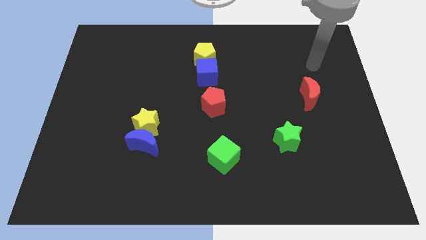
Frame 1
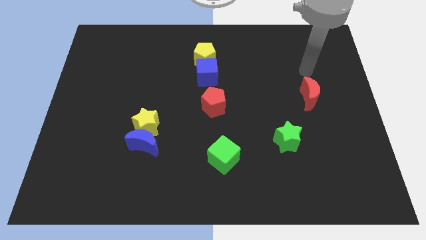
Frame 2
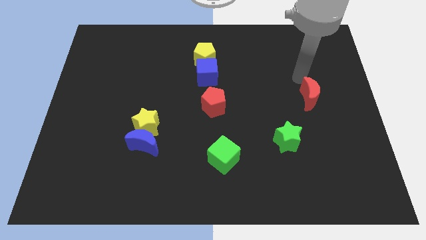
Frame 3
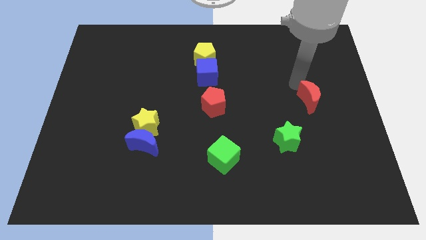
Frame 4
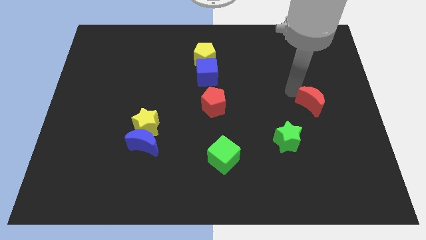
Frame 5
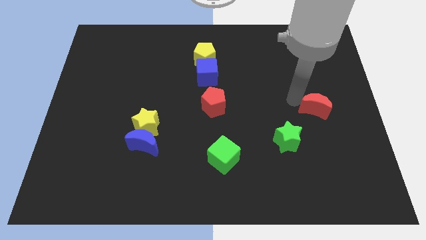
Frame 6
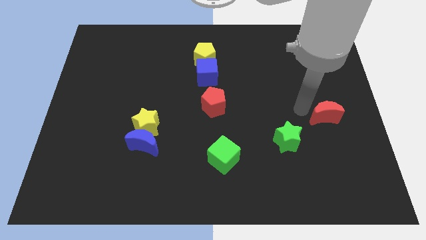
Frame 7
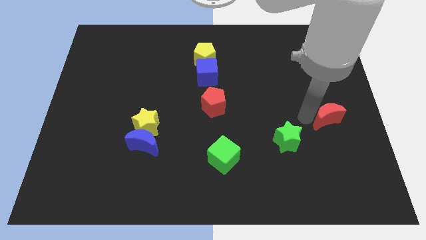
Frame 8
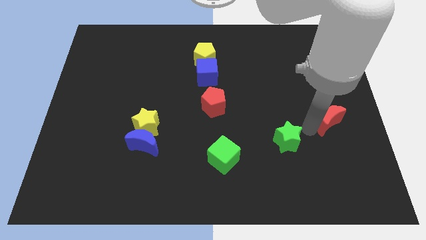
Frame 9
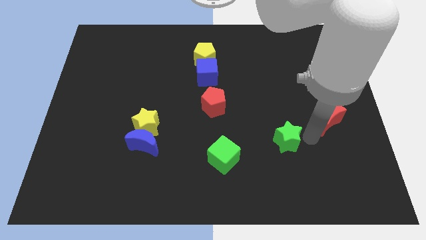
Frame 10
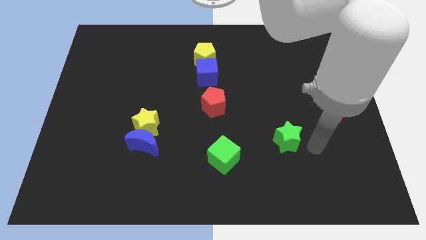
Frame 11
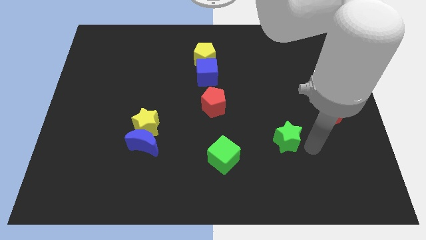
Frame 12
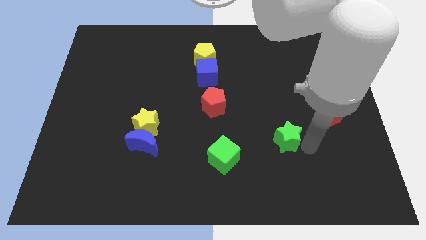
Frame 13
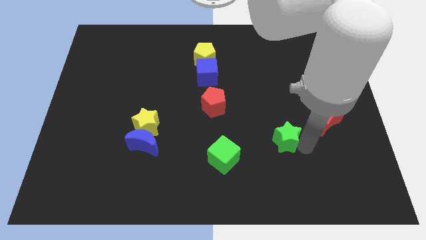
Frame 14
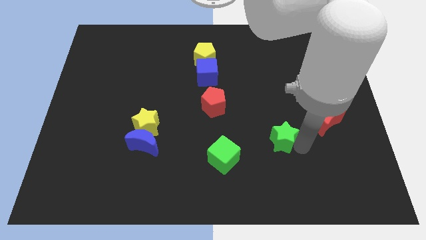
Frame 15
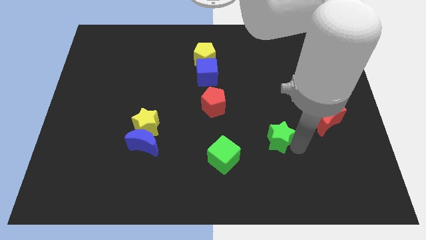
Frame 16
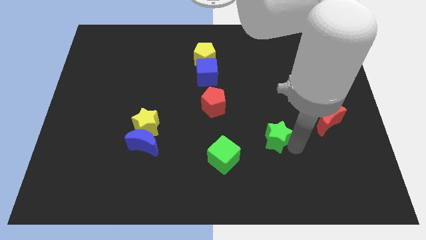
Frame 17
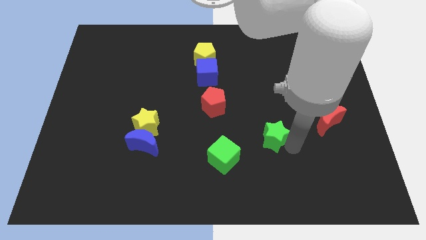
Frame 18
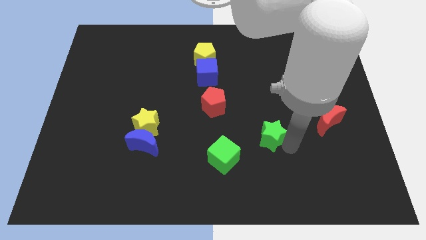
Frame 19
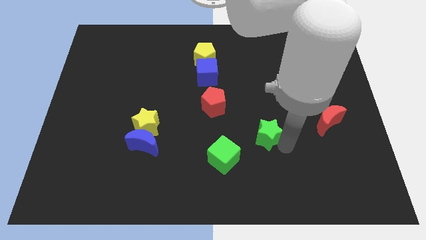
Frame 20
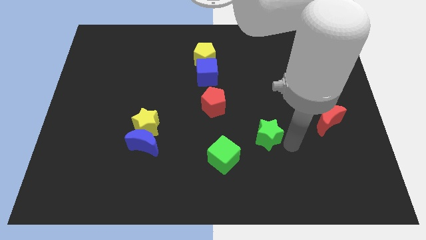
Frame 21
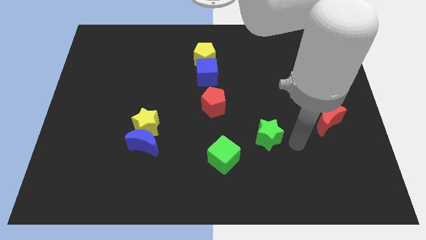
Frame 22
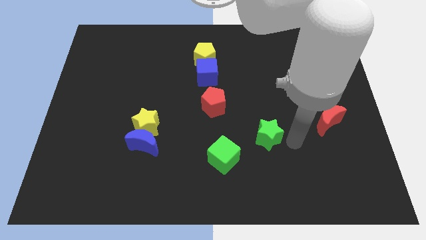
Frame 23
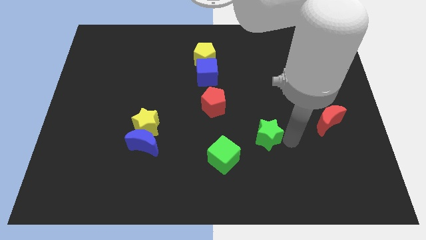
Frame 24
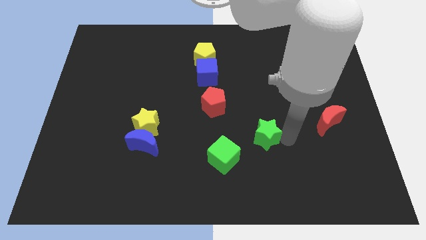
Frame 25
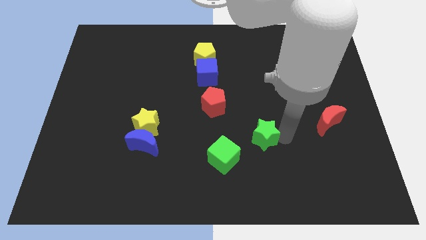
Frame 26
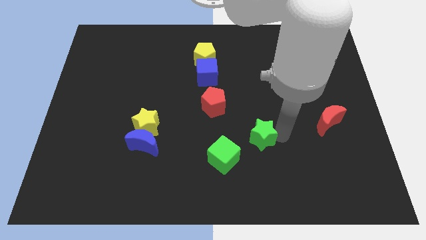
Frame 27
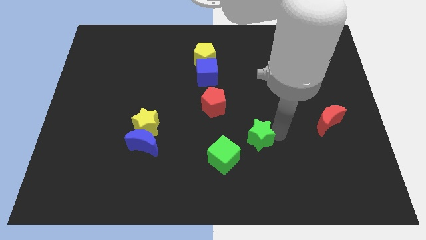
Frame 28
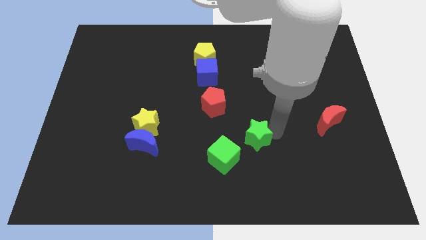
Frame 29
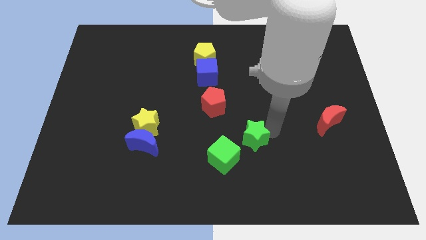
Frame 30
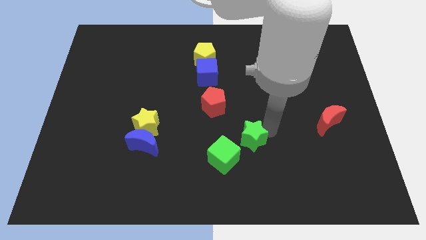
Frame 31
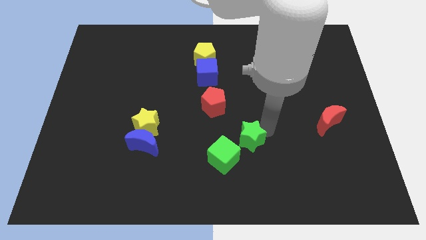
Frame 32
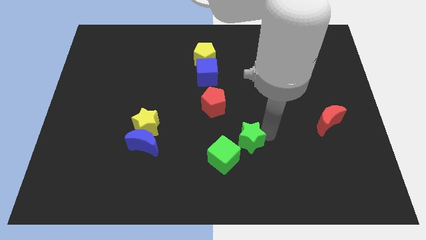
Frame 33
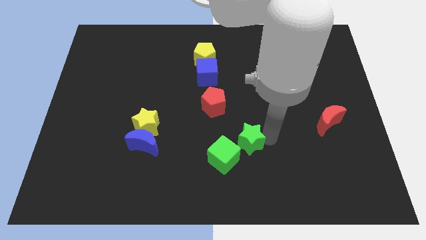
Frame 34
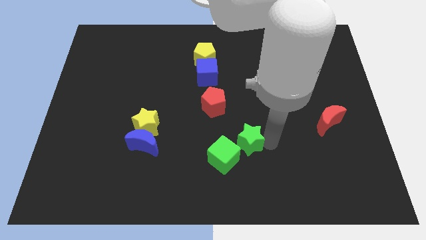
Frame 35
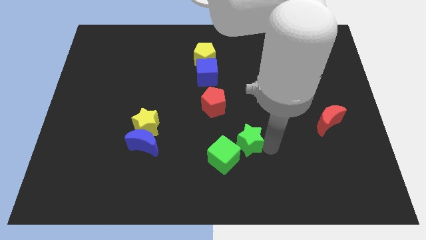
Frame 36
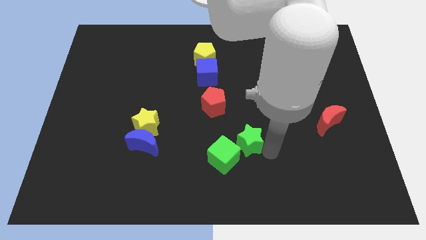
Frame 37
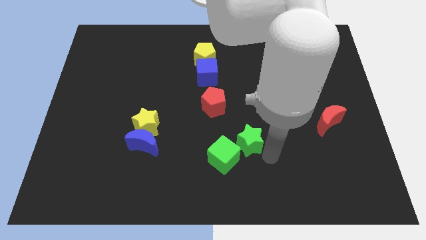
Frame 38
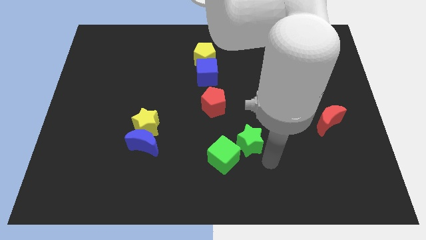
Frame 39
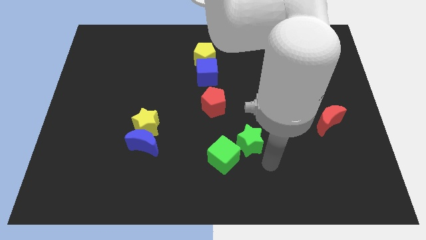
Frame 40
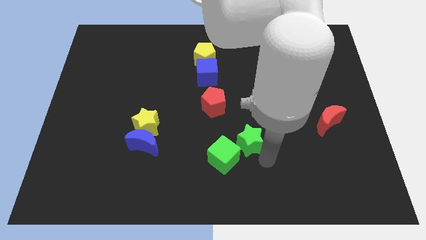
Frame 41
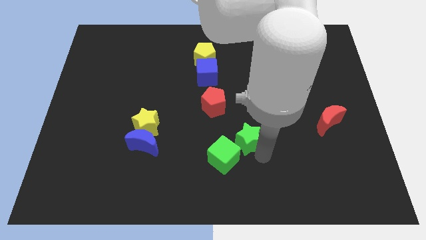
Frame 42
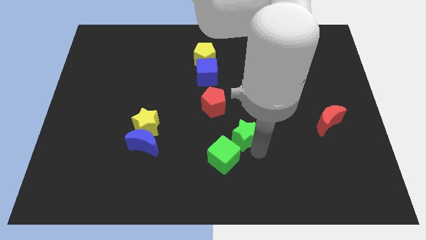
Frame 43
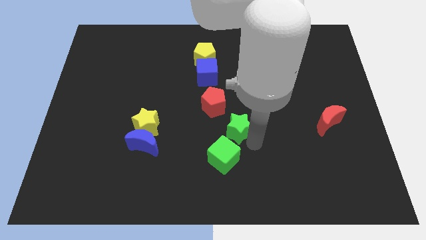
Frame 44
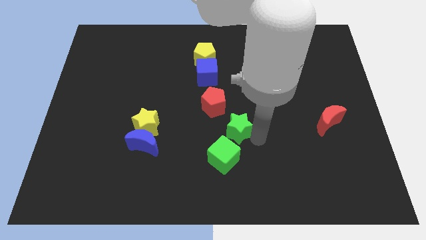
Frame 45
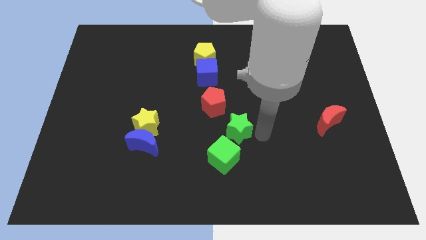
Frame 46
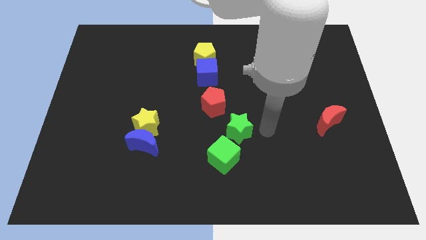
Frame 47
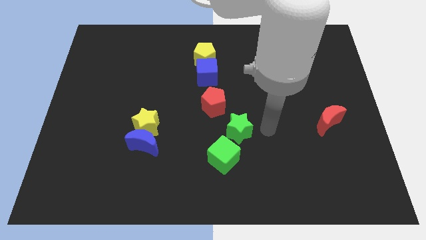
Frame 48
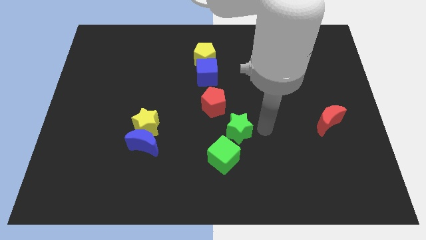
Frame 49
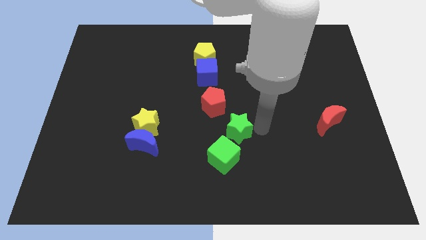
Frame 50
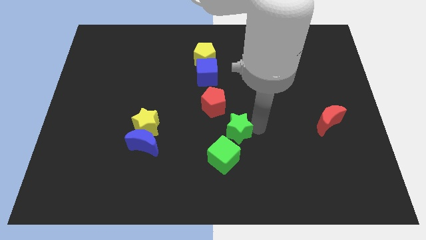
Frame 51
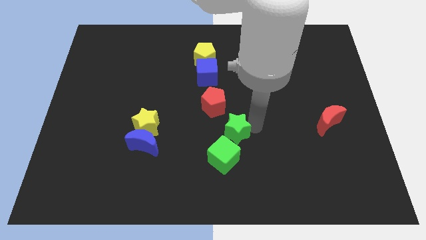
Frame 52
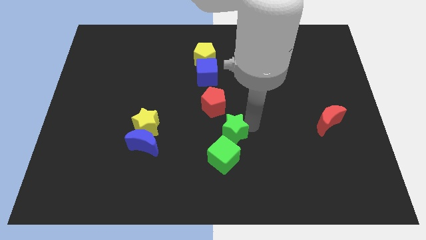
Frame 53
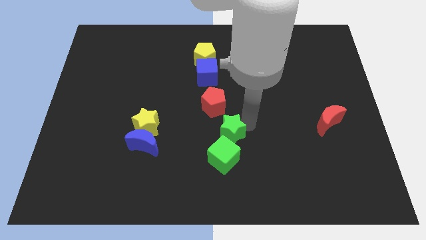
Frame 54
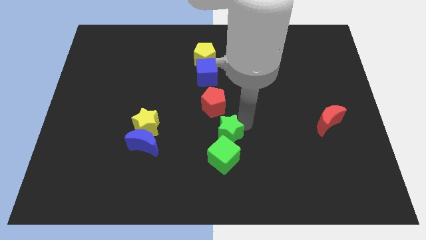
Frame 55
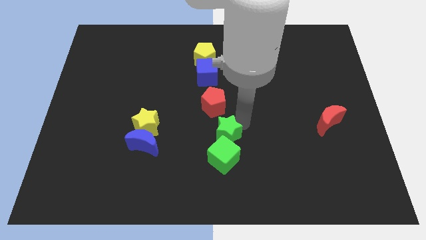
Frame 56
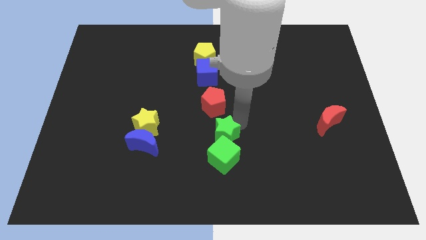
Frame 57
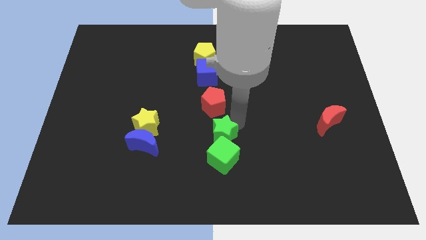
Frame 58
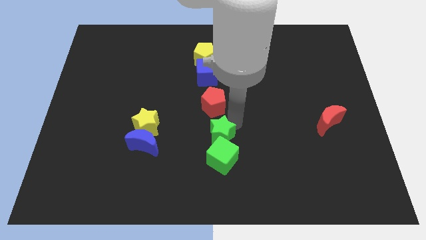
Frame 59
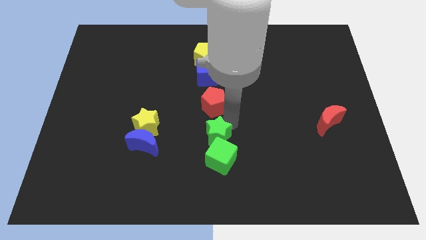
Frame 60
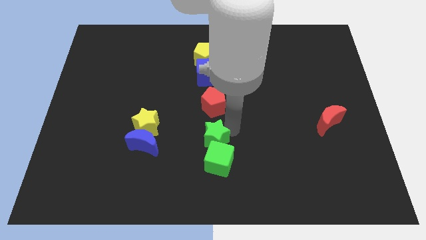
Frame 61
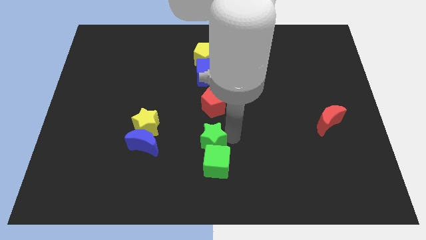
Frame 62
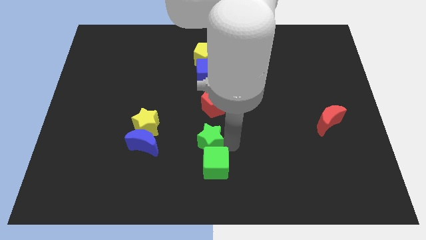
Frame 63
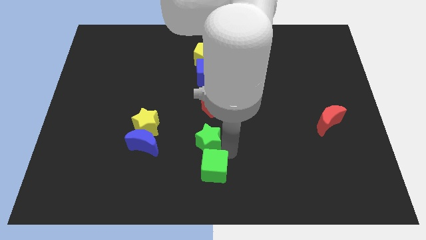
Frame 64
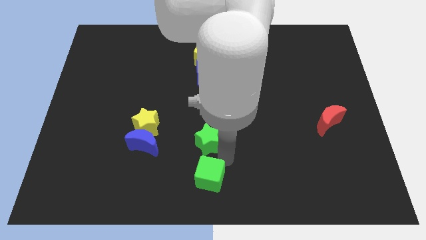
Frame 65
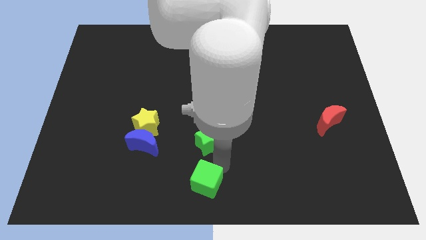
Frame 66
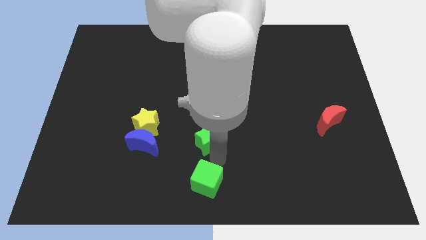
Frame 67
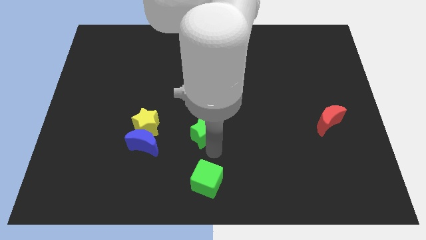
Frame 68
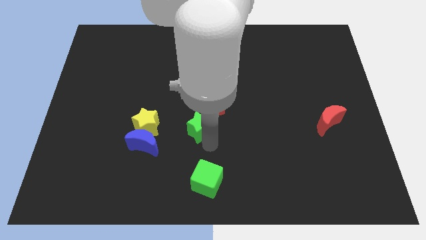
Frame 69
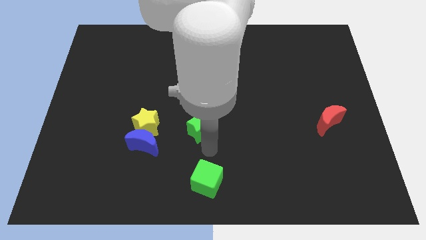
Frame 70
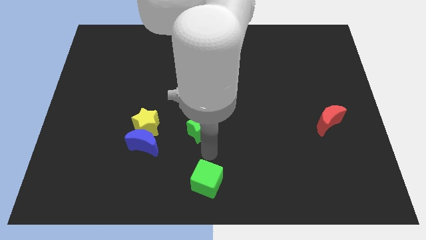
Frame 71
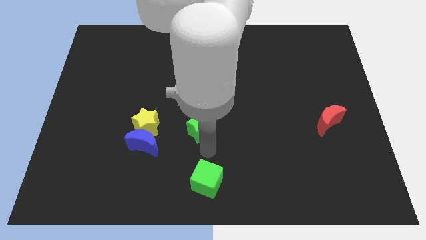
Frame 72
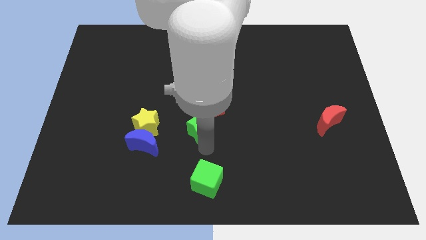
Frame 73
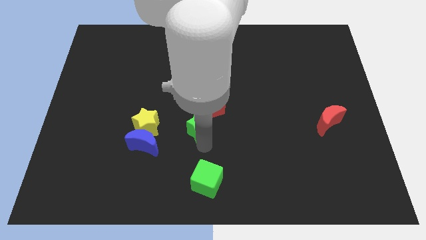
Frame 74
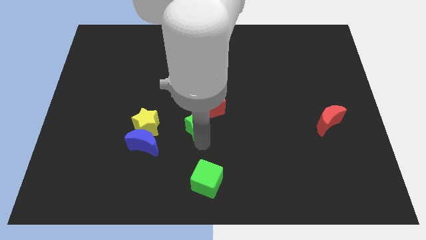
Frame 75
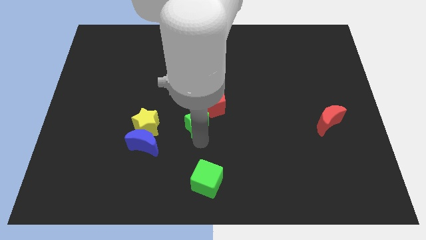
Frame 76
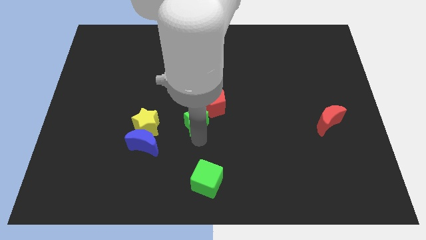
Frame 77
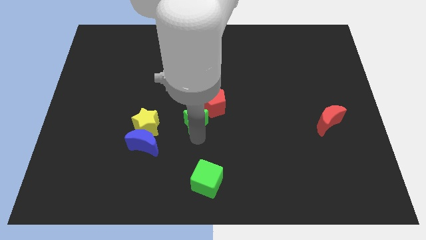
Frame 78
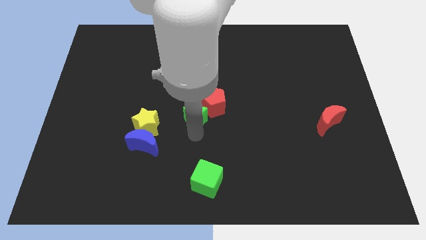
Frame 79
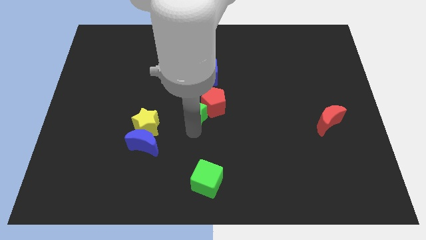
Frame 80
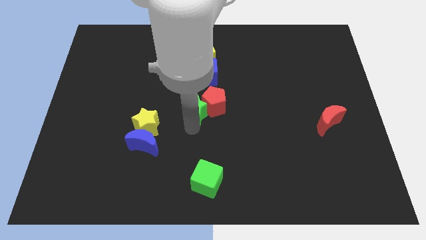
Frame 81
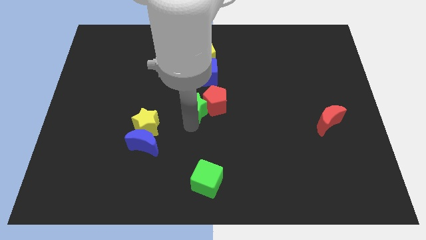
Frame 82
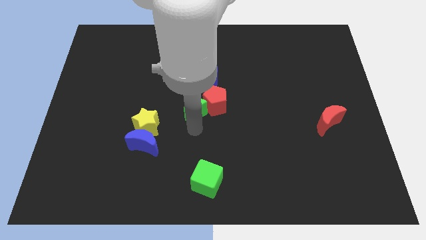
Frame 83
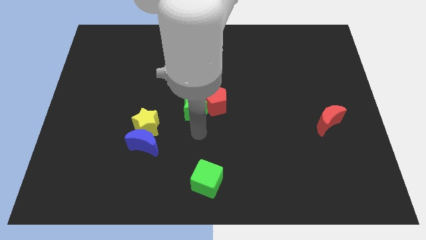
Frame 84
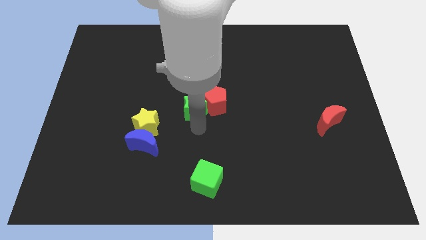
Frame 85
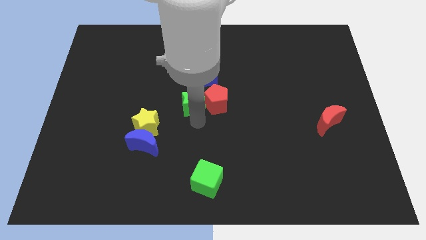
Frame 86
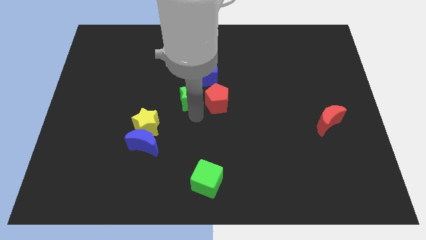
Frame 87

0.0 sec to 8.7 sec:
push the green star upwards and to the left diagonally
